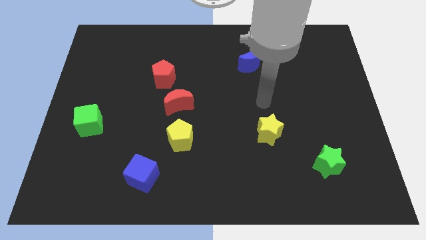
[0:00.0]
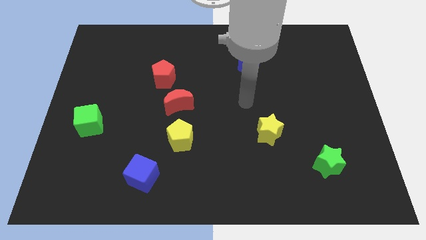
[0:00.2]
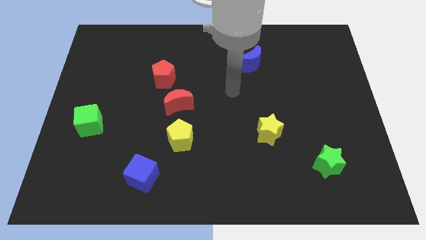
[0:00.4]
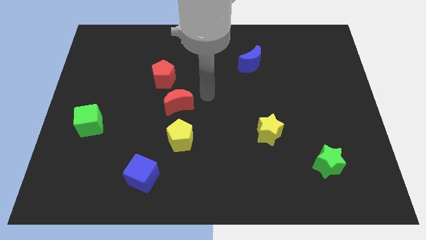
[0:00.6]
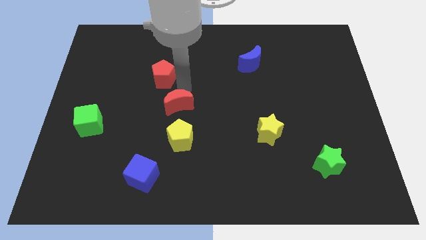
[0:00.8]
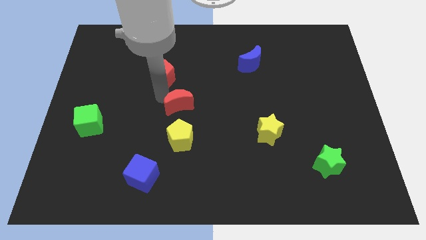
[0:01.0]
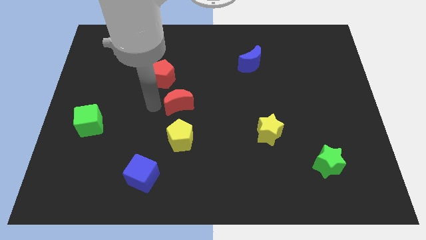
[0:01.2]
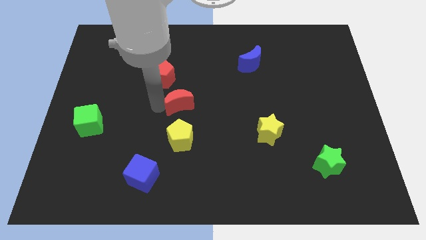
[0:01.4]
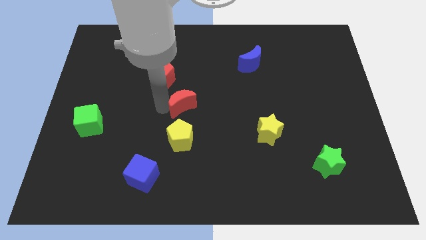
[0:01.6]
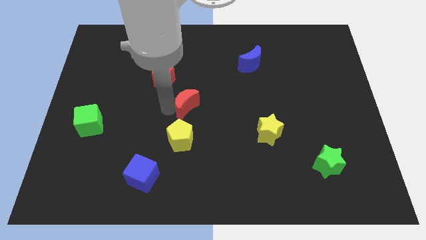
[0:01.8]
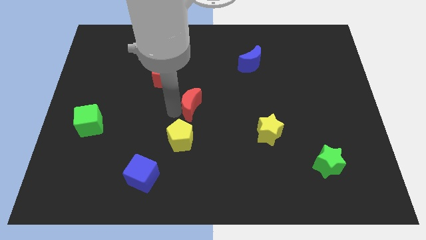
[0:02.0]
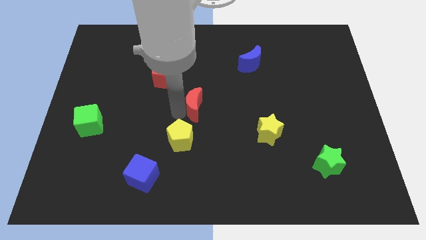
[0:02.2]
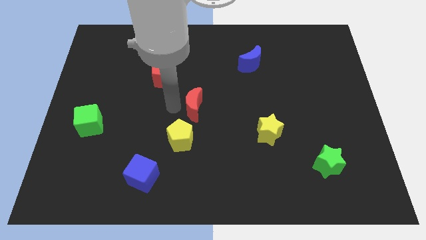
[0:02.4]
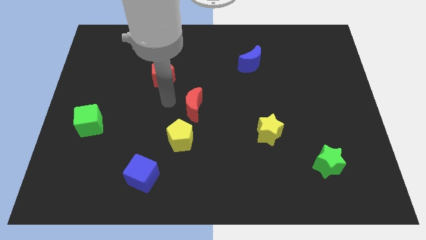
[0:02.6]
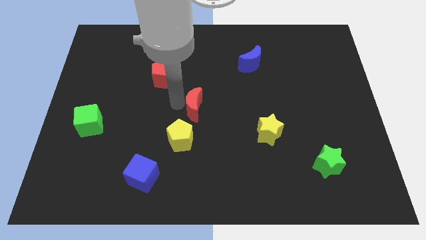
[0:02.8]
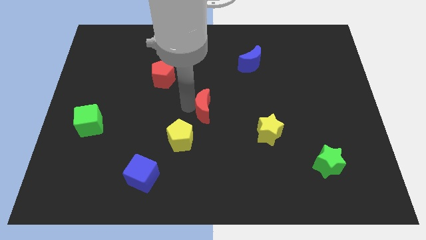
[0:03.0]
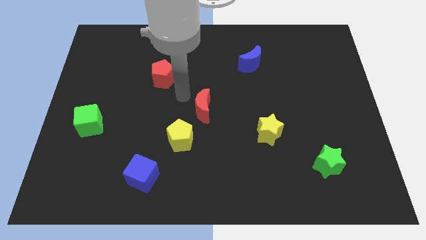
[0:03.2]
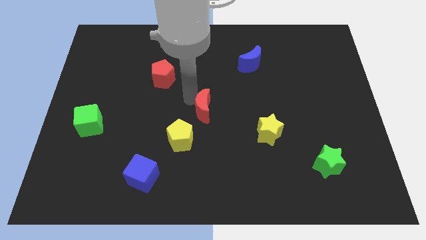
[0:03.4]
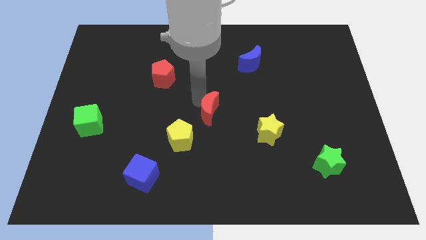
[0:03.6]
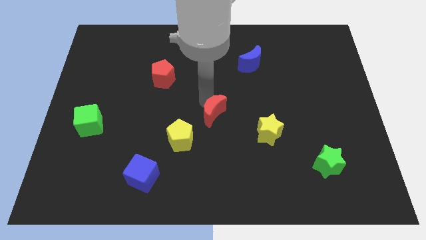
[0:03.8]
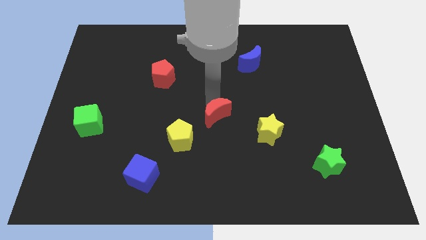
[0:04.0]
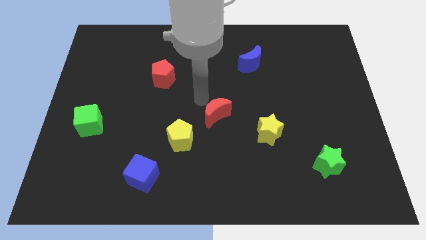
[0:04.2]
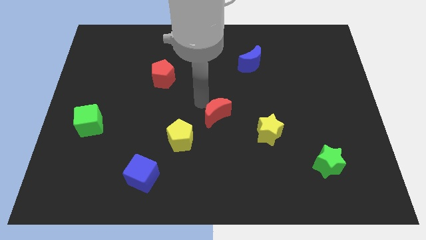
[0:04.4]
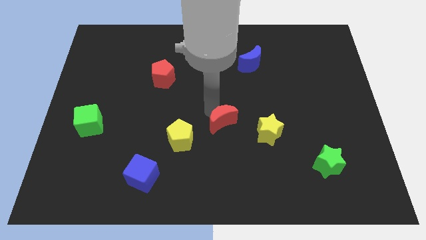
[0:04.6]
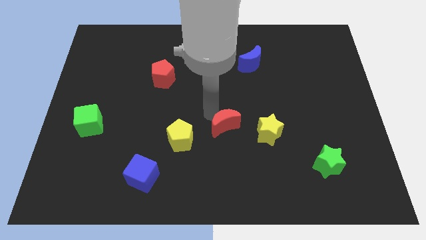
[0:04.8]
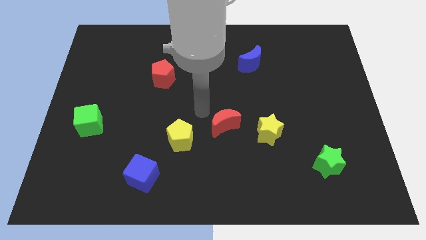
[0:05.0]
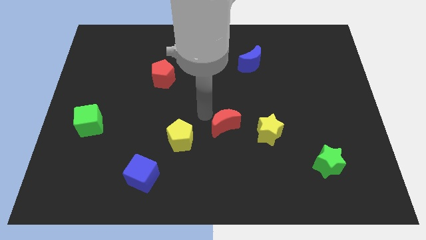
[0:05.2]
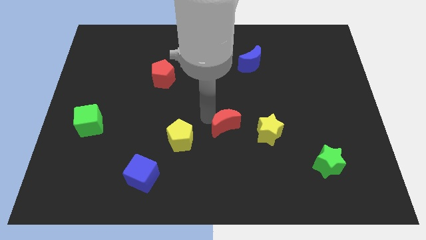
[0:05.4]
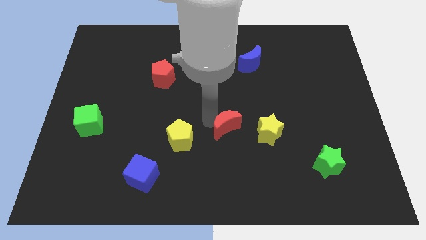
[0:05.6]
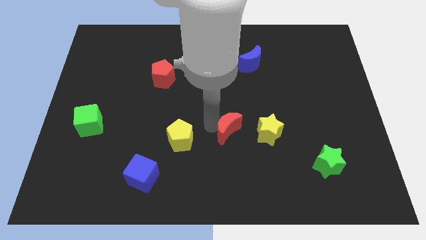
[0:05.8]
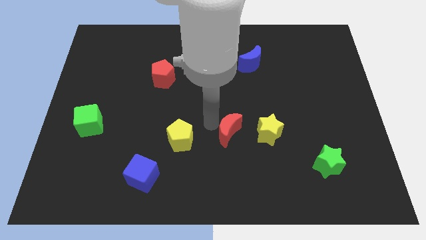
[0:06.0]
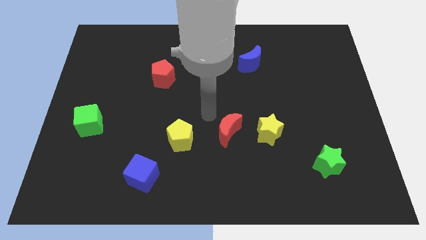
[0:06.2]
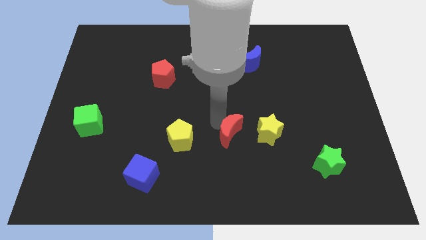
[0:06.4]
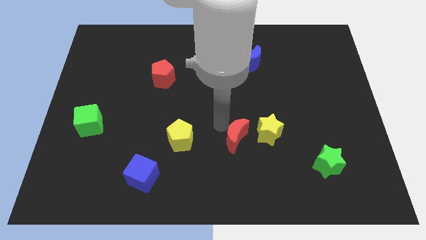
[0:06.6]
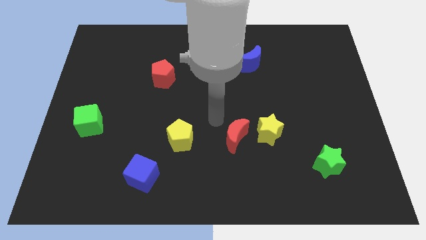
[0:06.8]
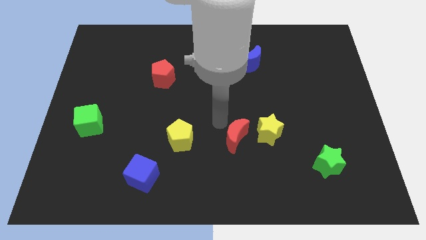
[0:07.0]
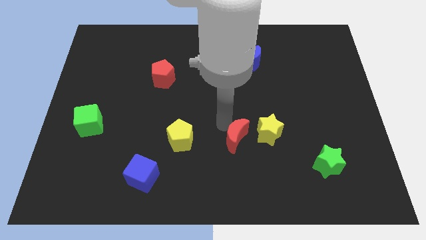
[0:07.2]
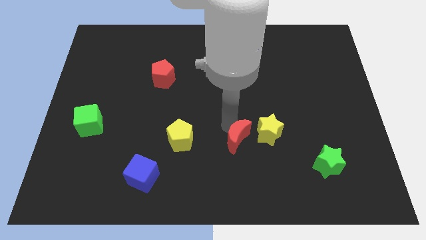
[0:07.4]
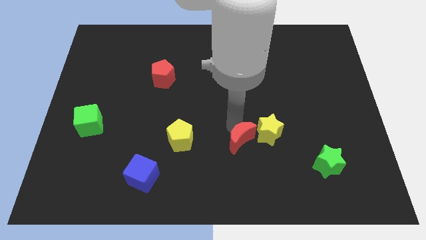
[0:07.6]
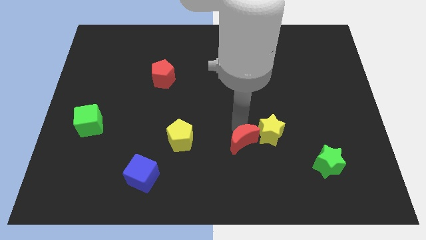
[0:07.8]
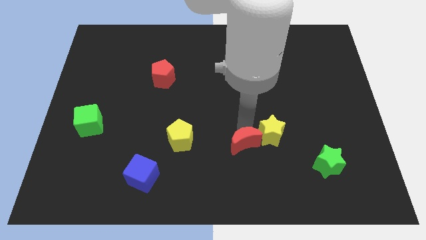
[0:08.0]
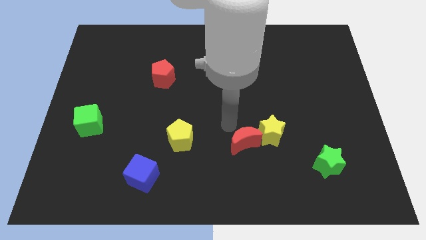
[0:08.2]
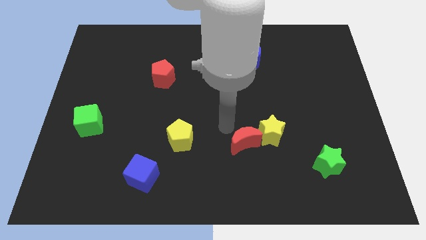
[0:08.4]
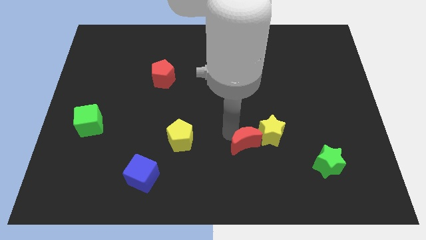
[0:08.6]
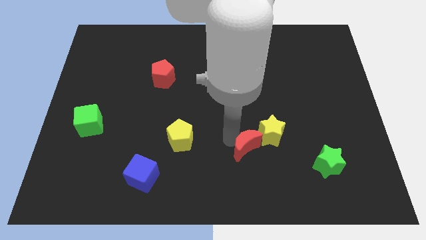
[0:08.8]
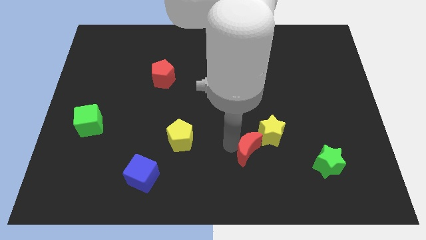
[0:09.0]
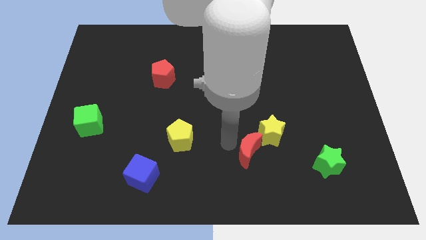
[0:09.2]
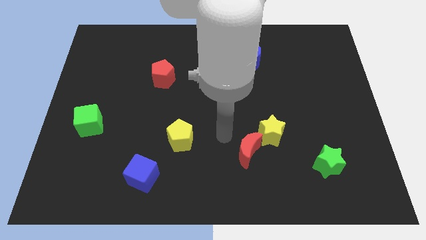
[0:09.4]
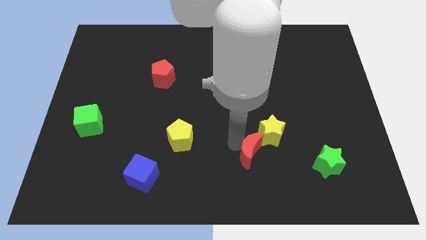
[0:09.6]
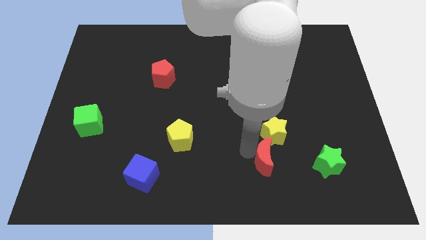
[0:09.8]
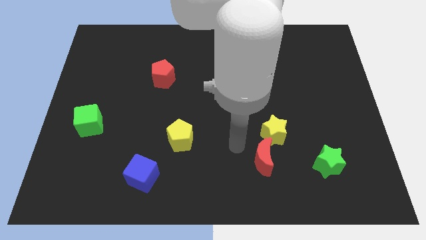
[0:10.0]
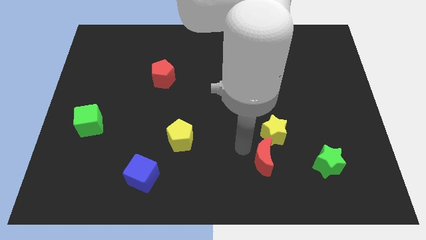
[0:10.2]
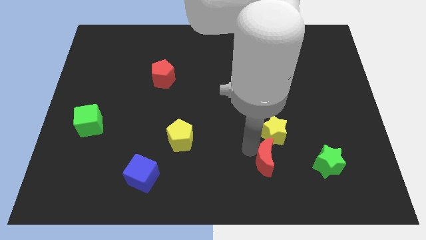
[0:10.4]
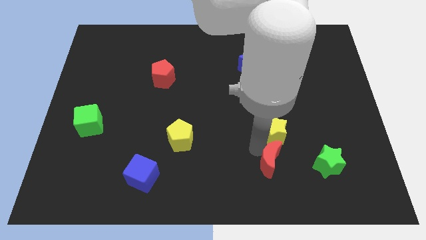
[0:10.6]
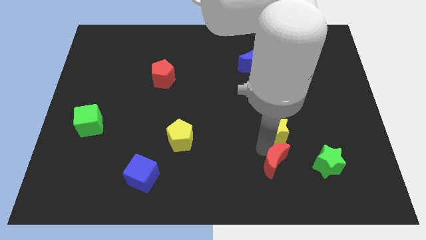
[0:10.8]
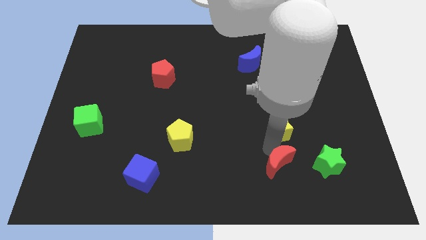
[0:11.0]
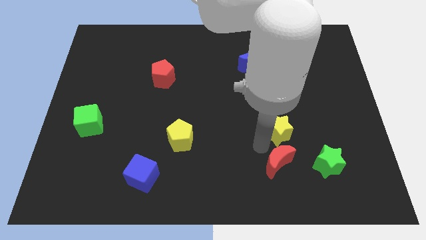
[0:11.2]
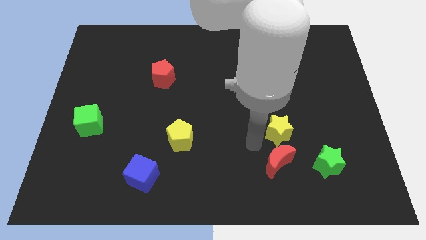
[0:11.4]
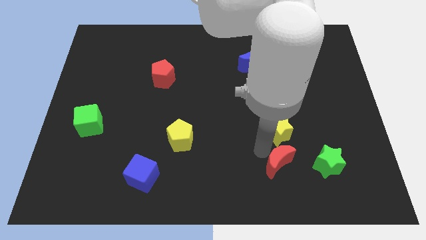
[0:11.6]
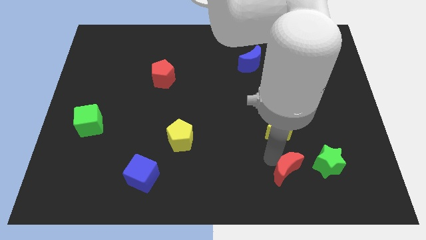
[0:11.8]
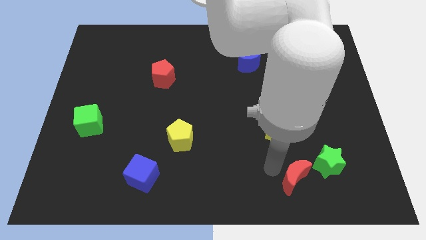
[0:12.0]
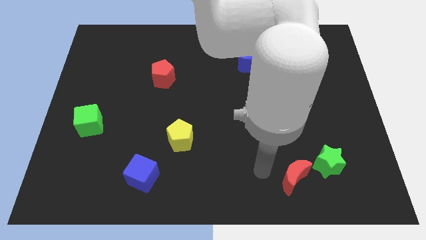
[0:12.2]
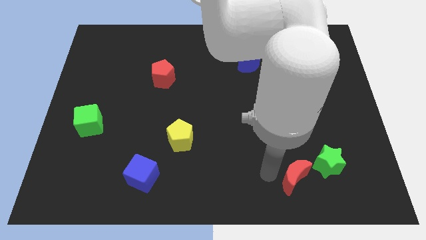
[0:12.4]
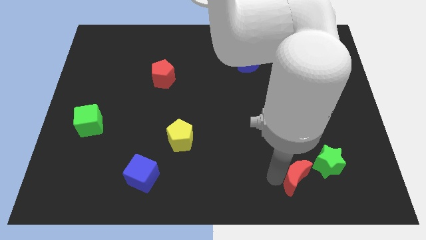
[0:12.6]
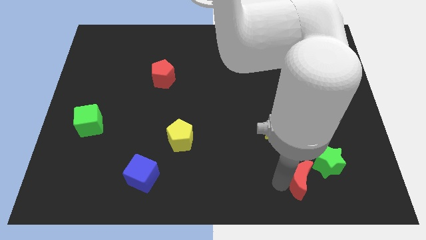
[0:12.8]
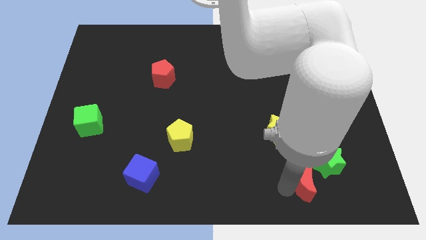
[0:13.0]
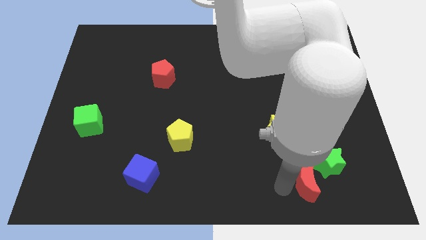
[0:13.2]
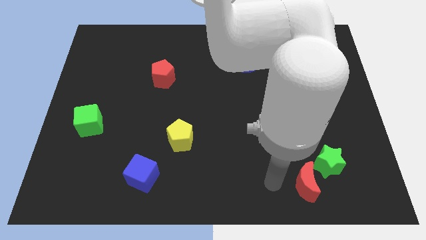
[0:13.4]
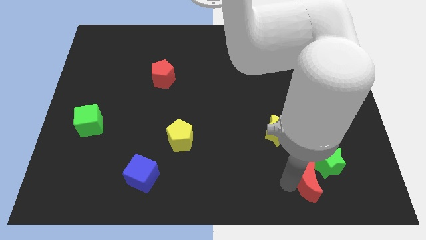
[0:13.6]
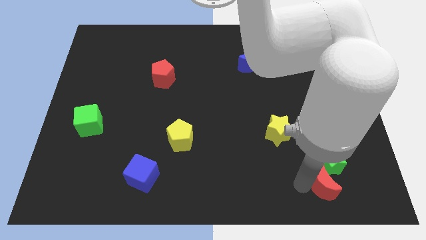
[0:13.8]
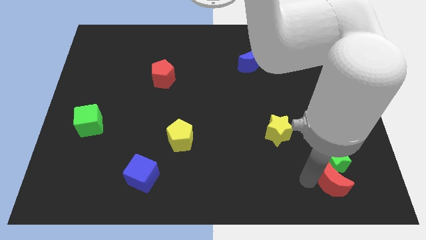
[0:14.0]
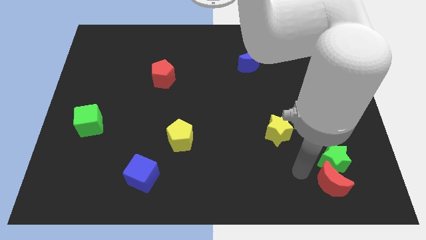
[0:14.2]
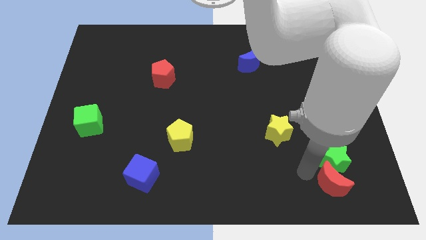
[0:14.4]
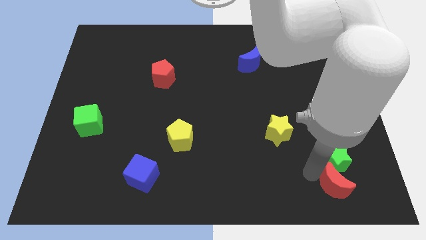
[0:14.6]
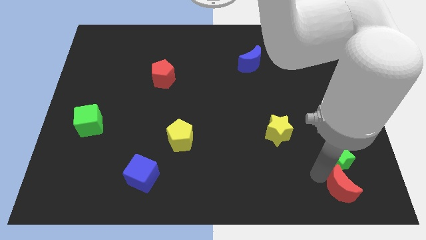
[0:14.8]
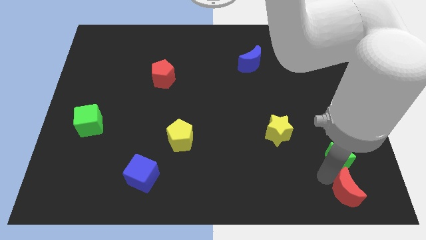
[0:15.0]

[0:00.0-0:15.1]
push the red moon to the bottom right of the board
